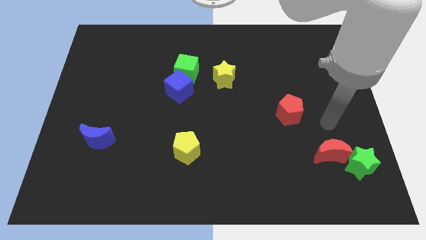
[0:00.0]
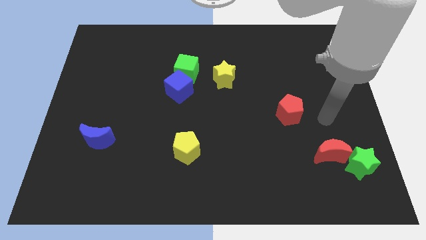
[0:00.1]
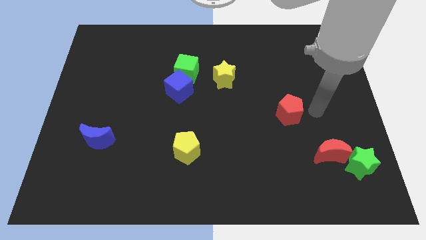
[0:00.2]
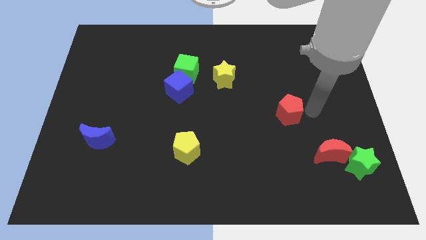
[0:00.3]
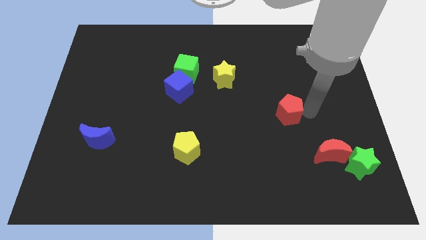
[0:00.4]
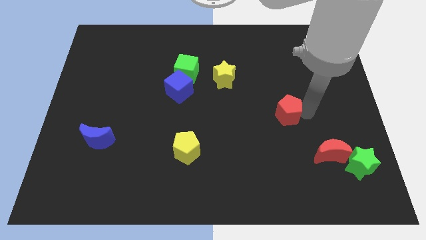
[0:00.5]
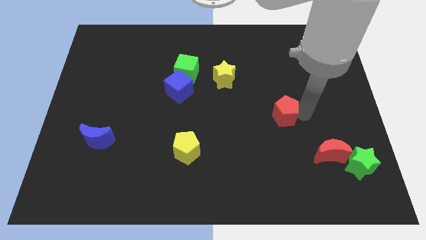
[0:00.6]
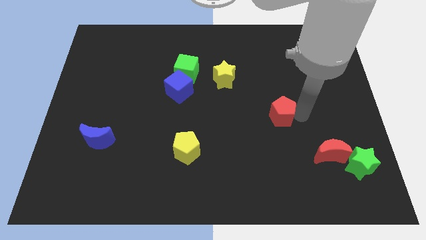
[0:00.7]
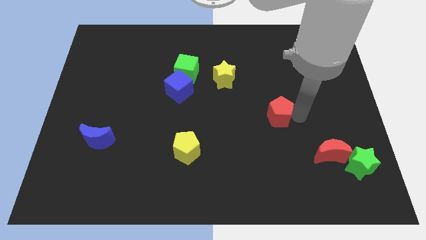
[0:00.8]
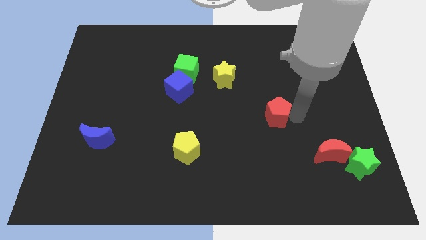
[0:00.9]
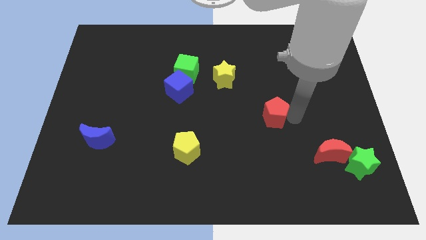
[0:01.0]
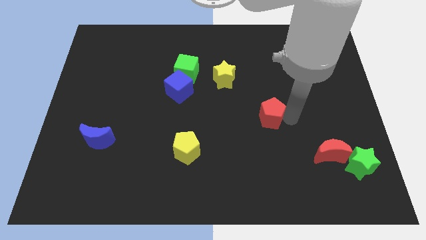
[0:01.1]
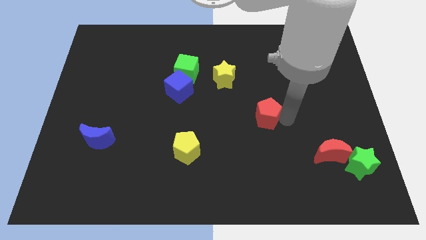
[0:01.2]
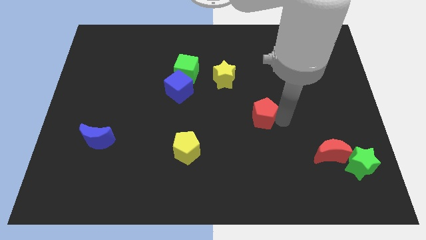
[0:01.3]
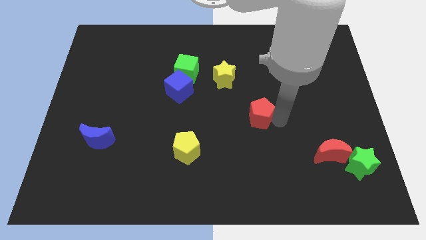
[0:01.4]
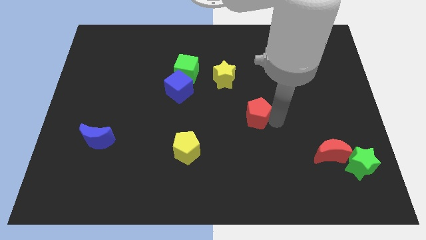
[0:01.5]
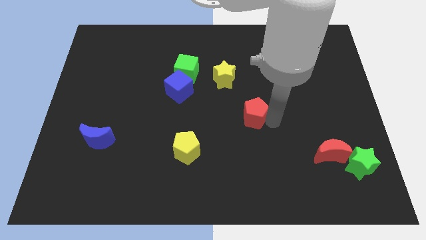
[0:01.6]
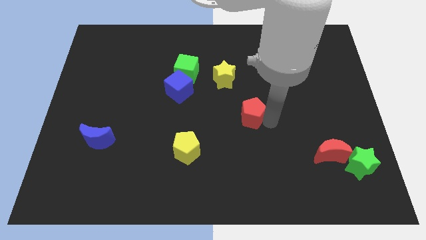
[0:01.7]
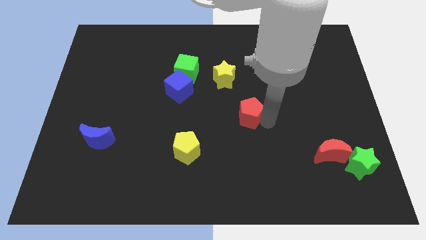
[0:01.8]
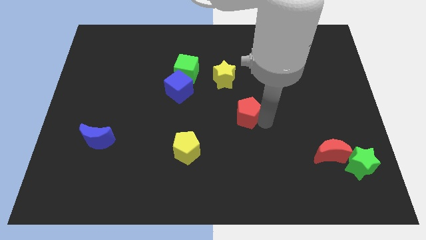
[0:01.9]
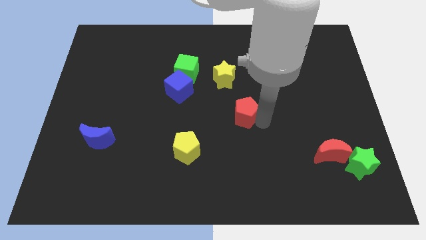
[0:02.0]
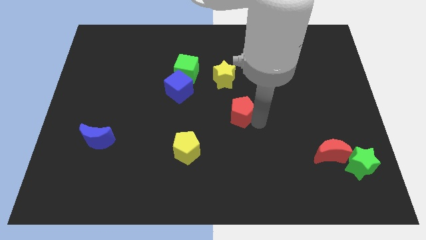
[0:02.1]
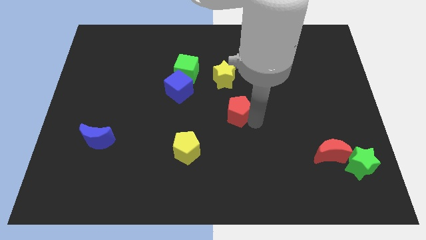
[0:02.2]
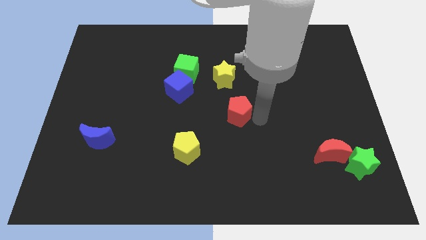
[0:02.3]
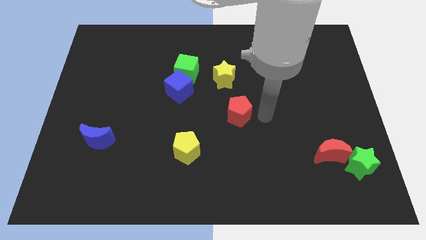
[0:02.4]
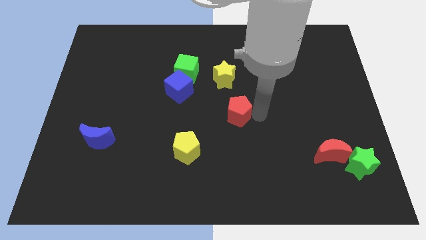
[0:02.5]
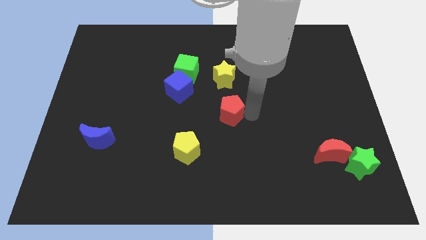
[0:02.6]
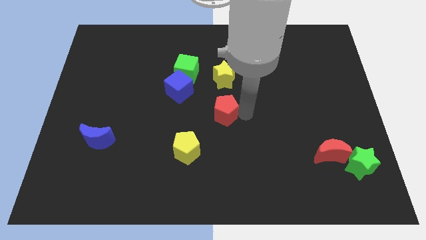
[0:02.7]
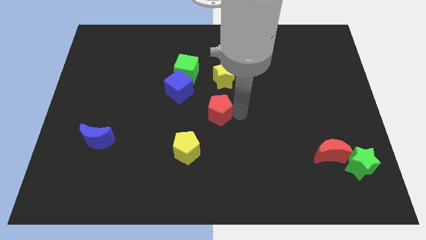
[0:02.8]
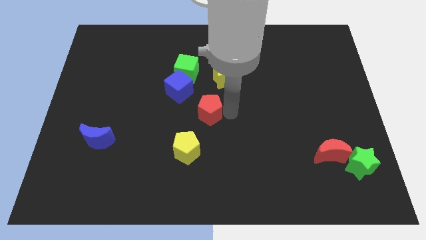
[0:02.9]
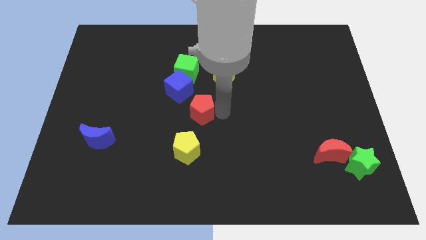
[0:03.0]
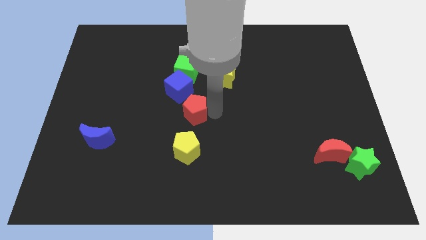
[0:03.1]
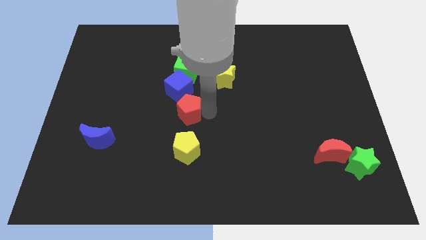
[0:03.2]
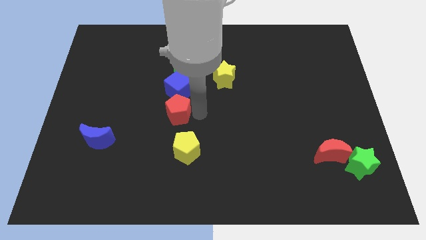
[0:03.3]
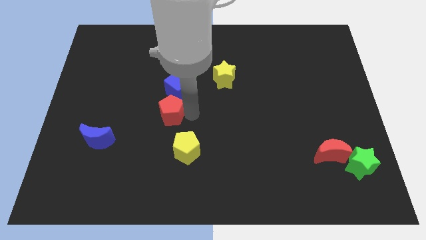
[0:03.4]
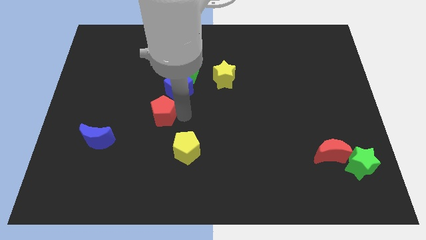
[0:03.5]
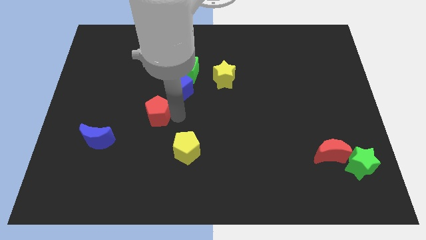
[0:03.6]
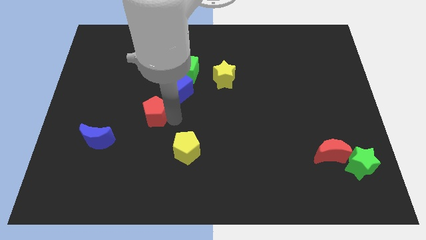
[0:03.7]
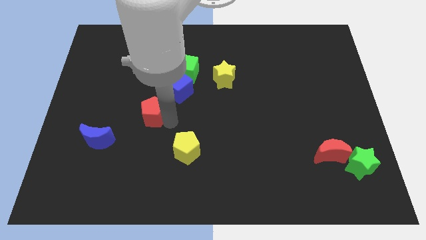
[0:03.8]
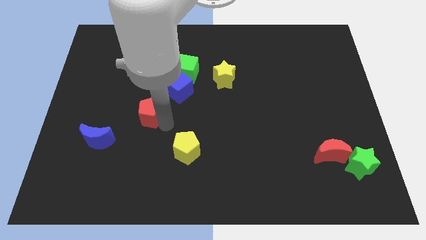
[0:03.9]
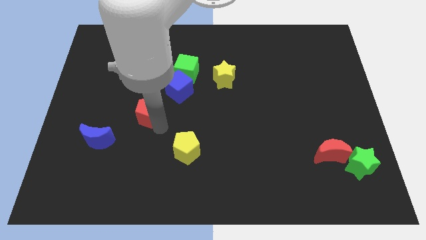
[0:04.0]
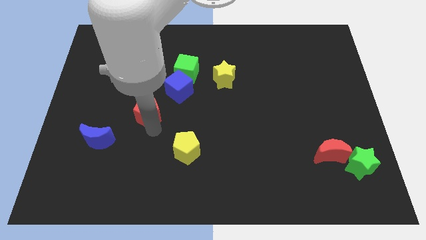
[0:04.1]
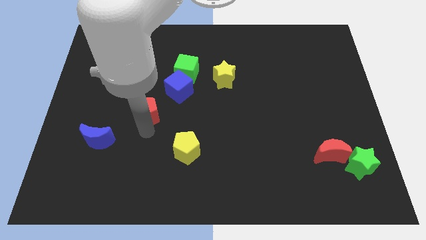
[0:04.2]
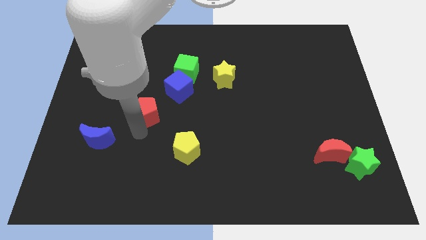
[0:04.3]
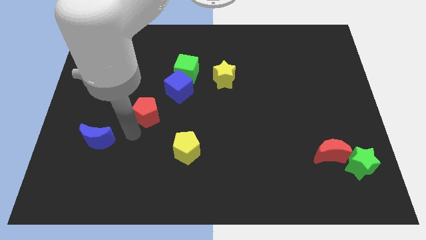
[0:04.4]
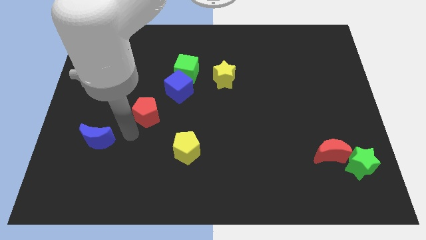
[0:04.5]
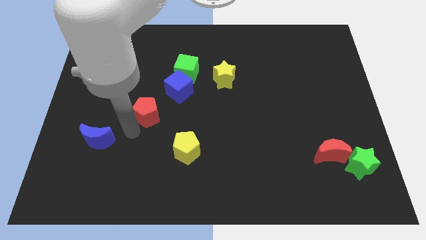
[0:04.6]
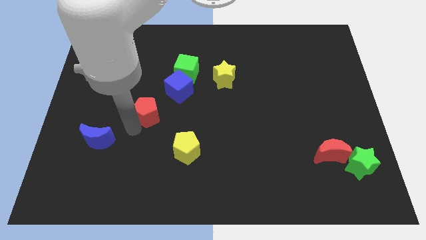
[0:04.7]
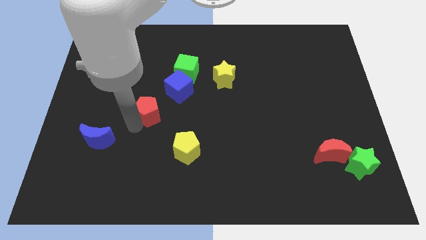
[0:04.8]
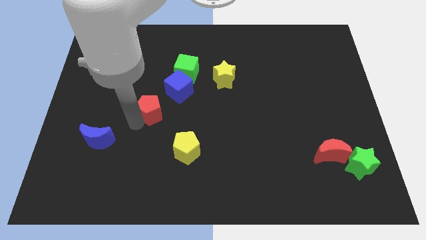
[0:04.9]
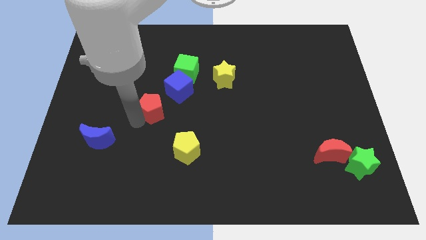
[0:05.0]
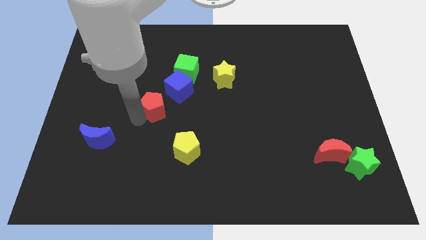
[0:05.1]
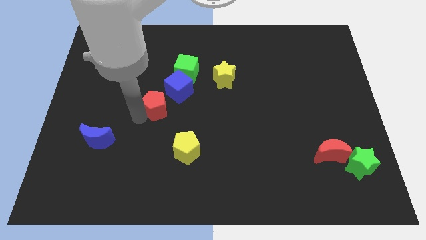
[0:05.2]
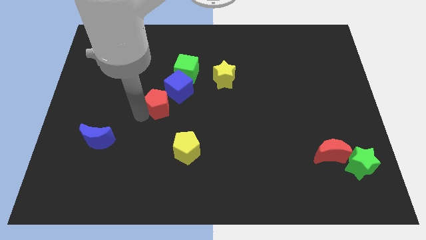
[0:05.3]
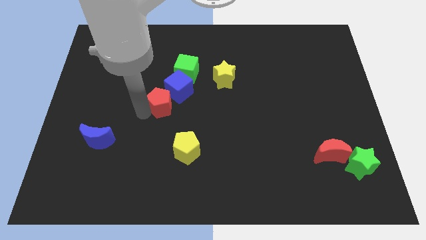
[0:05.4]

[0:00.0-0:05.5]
push the red pentagon to the bottom left side of the green cube
